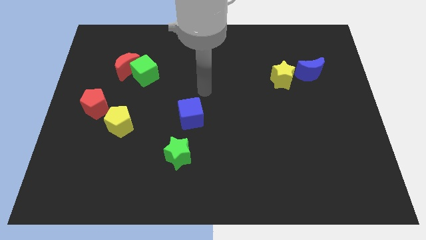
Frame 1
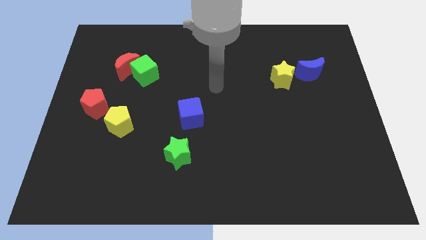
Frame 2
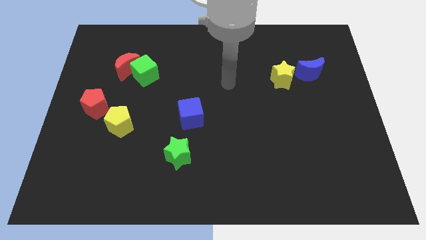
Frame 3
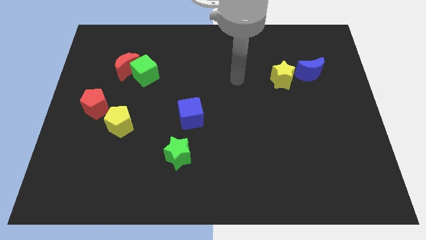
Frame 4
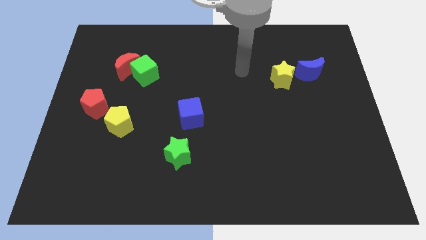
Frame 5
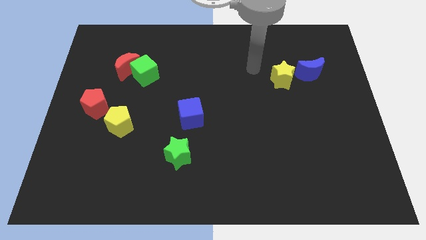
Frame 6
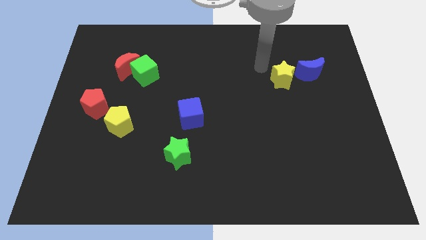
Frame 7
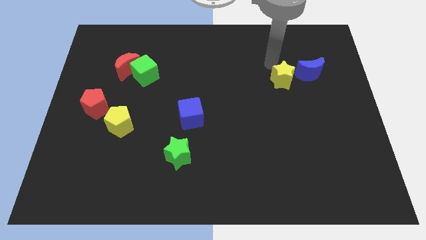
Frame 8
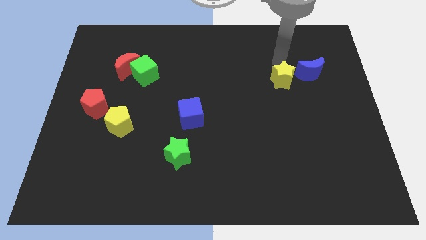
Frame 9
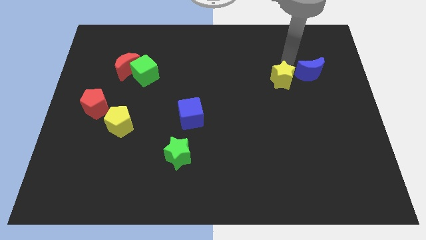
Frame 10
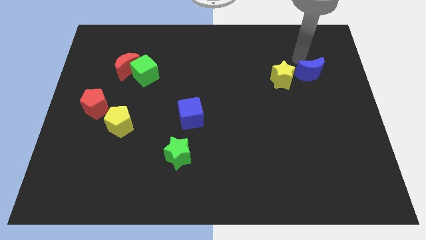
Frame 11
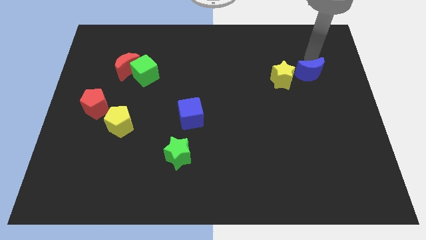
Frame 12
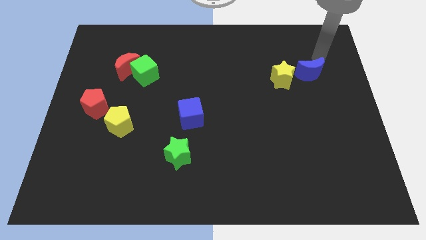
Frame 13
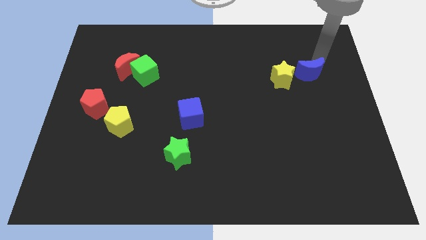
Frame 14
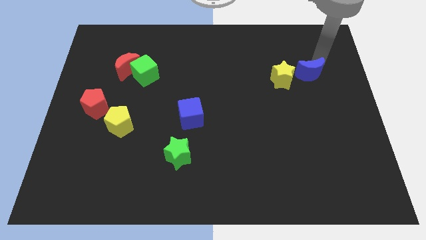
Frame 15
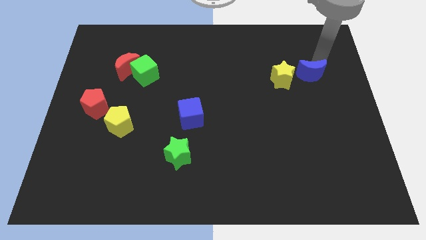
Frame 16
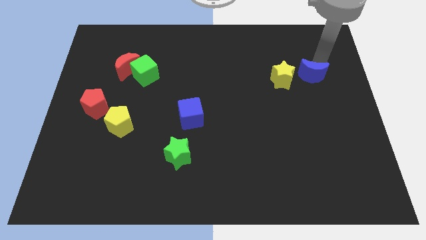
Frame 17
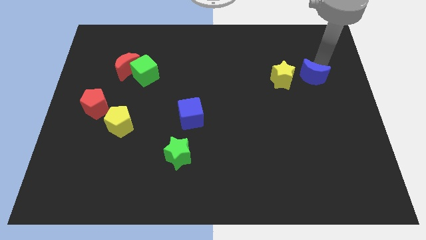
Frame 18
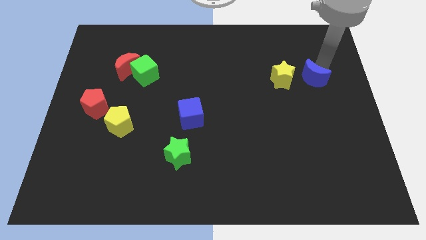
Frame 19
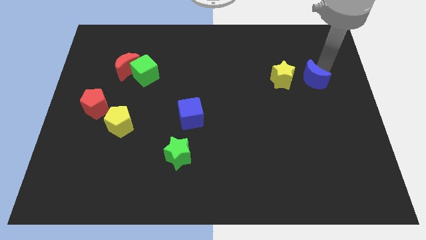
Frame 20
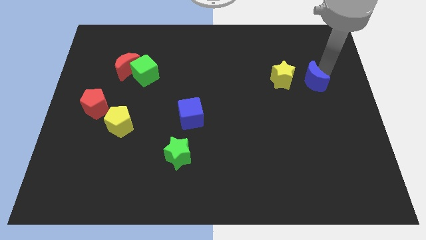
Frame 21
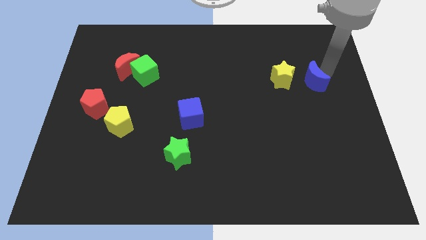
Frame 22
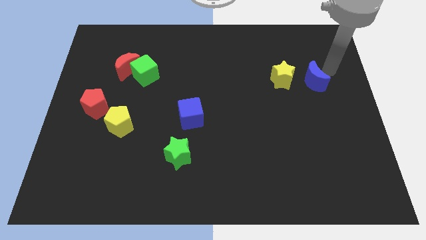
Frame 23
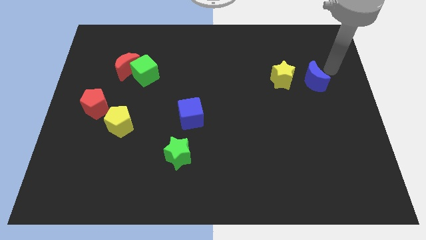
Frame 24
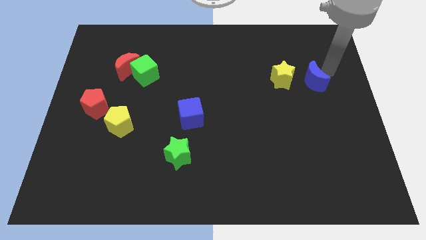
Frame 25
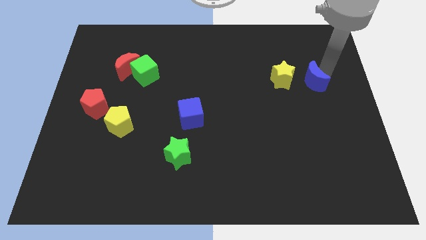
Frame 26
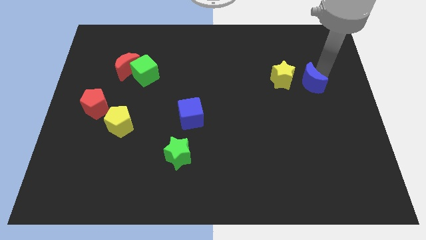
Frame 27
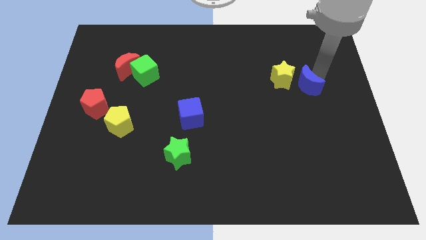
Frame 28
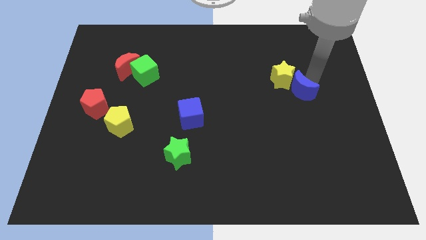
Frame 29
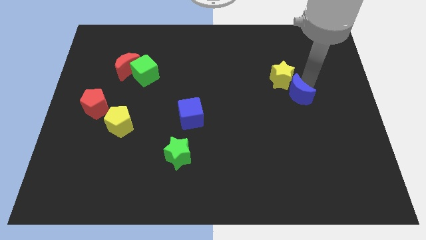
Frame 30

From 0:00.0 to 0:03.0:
move the blue moon downwards and left a little

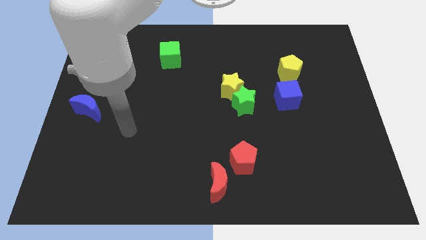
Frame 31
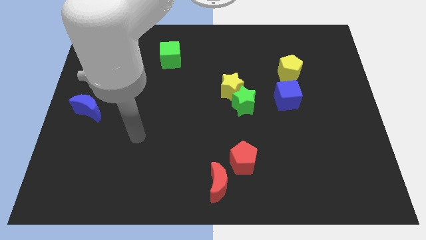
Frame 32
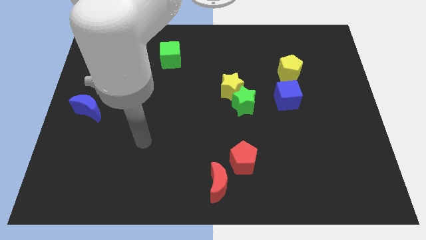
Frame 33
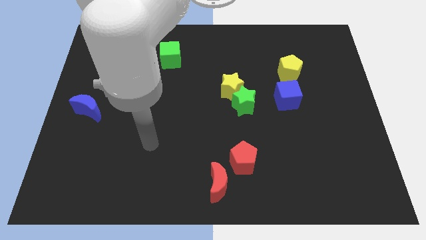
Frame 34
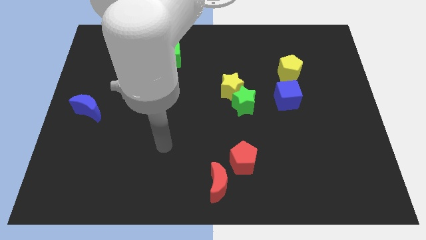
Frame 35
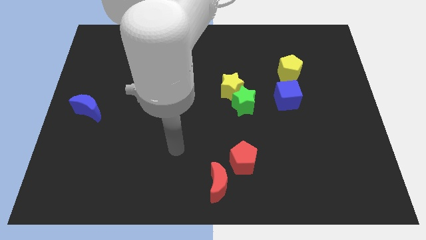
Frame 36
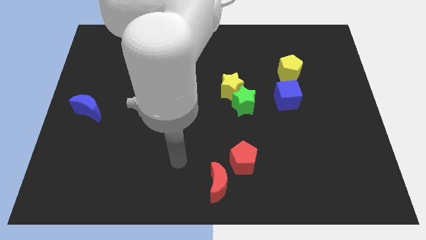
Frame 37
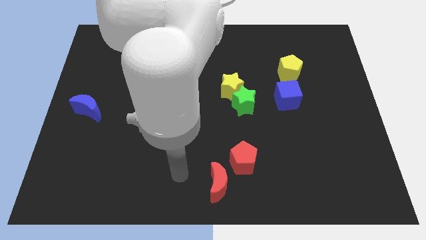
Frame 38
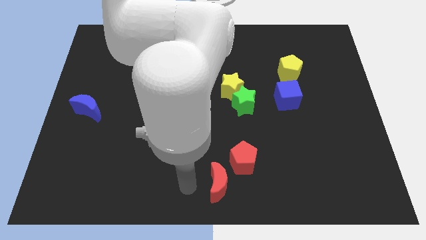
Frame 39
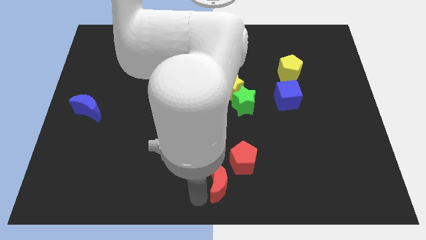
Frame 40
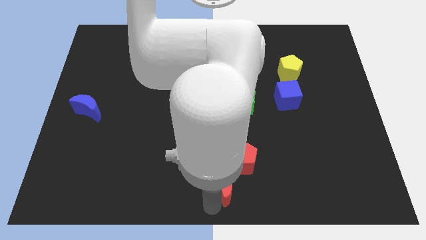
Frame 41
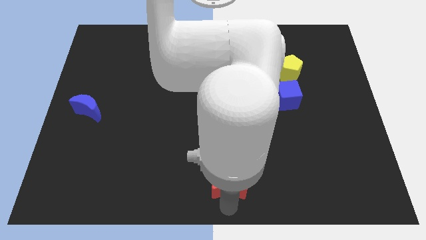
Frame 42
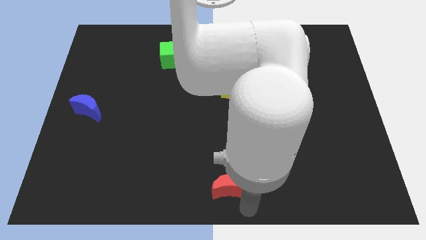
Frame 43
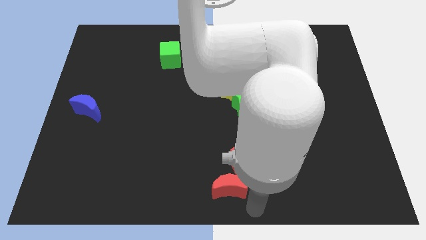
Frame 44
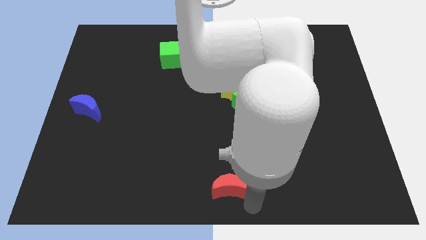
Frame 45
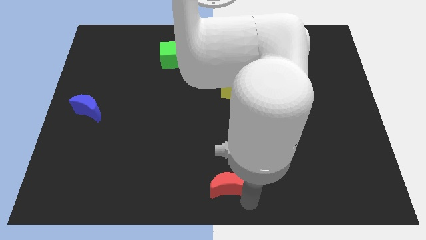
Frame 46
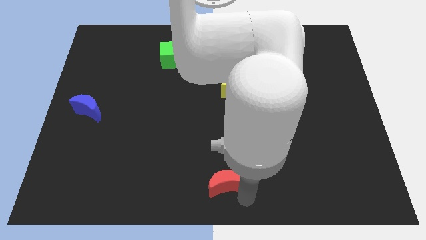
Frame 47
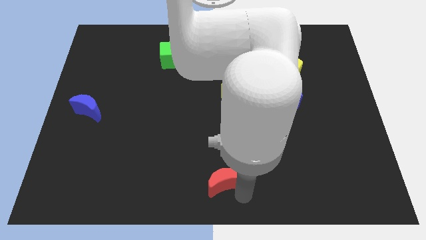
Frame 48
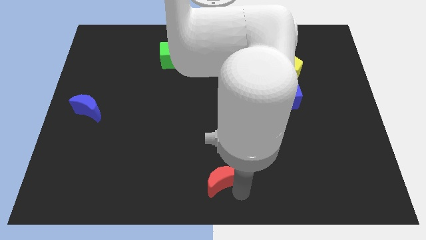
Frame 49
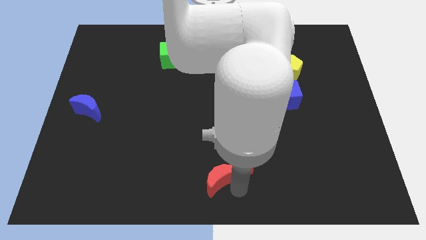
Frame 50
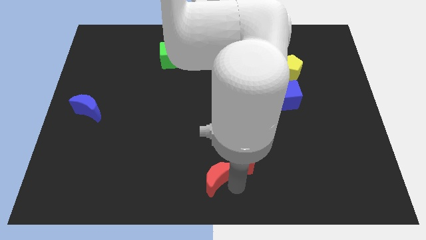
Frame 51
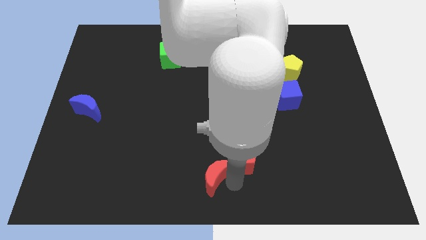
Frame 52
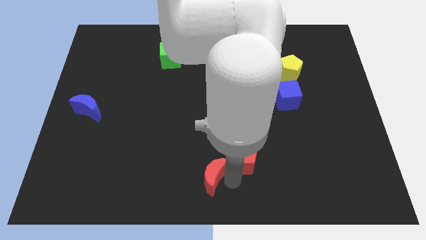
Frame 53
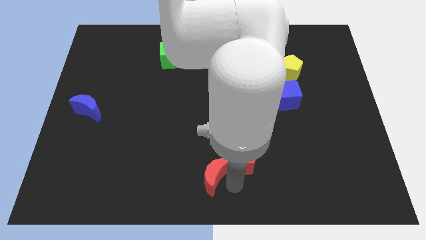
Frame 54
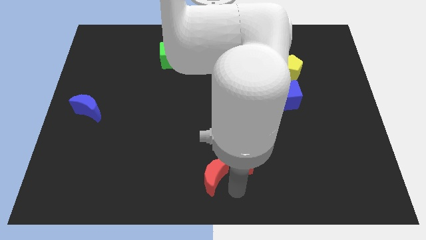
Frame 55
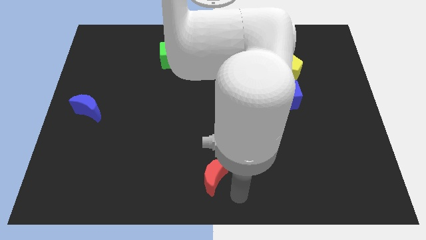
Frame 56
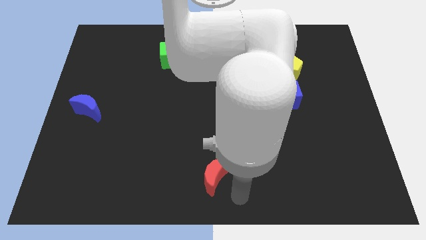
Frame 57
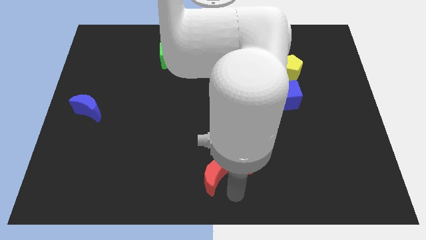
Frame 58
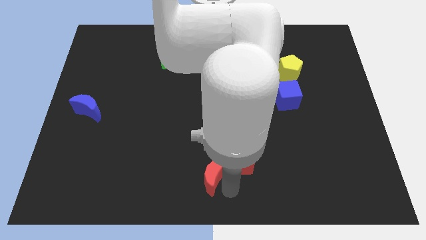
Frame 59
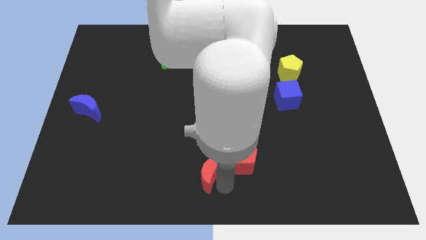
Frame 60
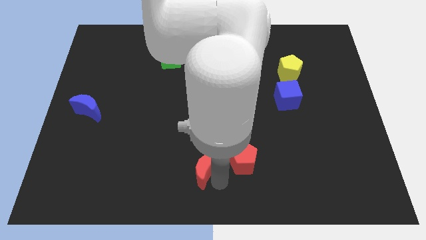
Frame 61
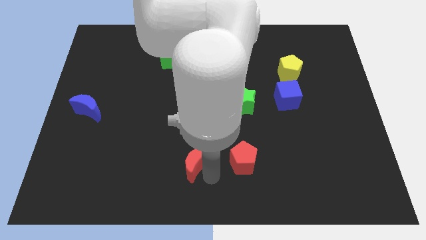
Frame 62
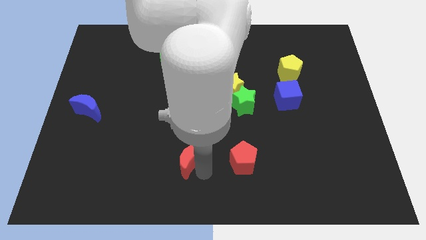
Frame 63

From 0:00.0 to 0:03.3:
slide the red moon upwards and then left a little

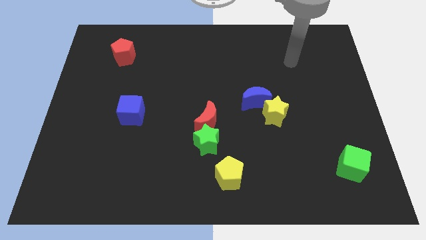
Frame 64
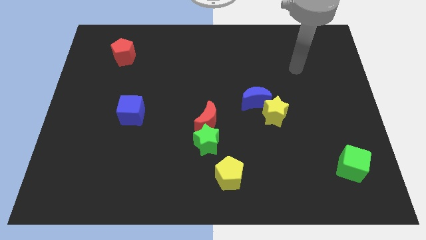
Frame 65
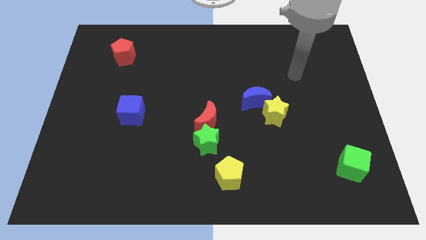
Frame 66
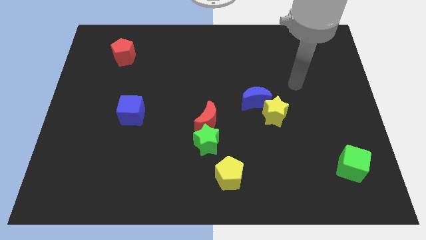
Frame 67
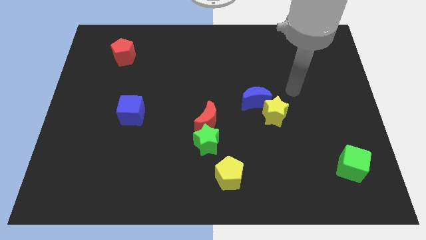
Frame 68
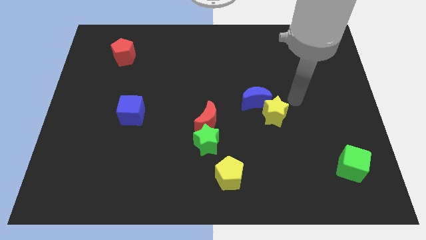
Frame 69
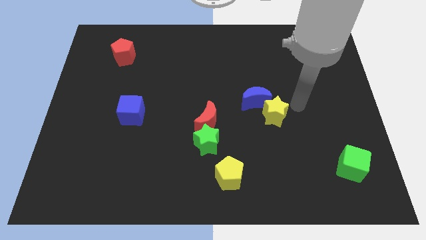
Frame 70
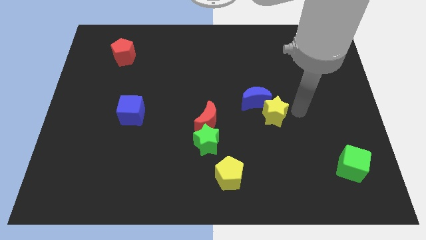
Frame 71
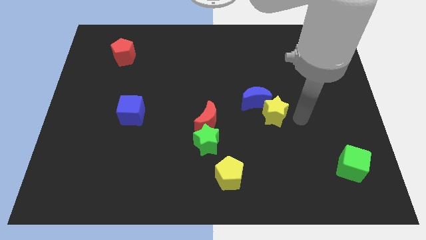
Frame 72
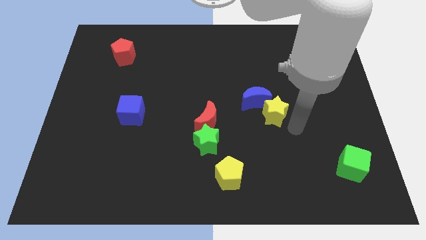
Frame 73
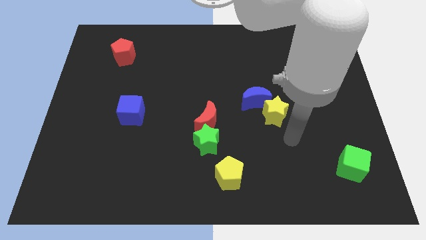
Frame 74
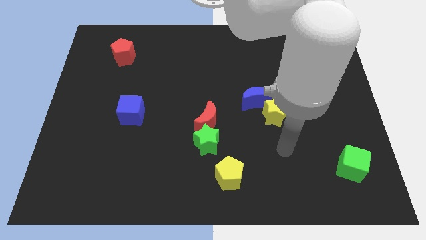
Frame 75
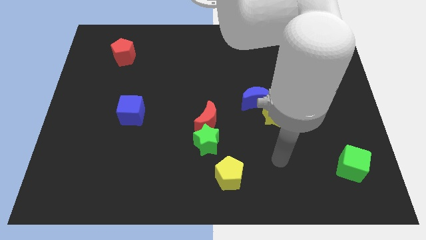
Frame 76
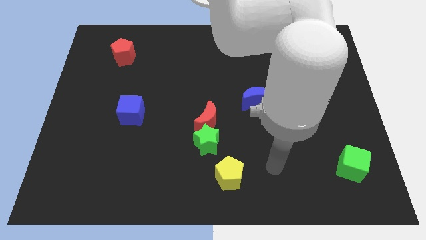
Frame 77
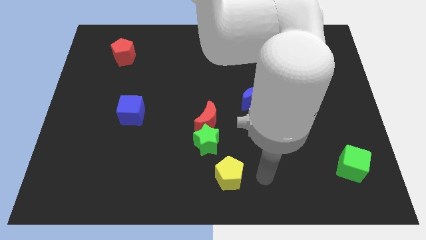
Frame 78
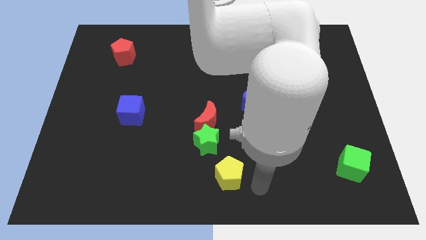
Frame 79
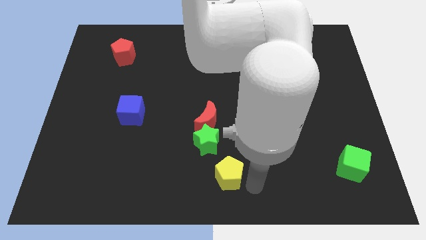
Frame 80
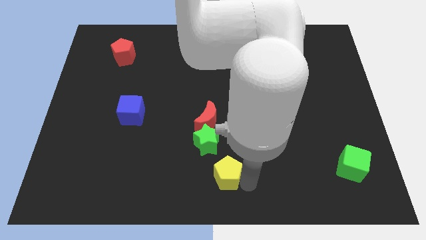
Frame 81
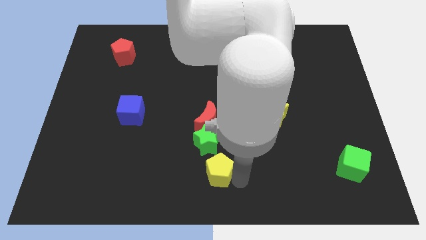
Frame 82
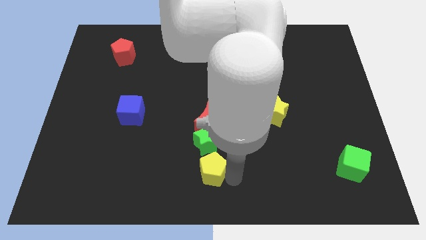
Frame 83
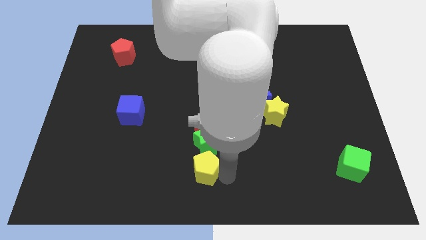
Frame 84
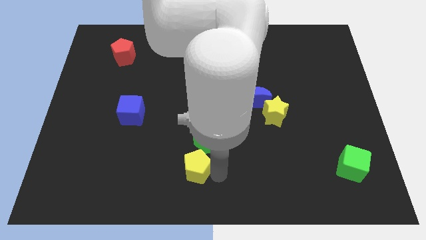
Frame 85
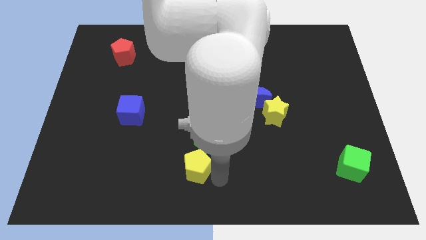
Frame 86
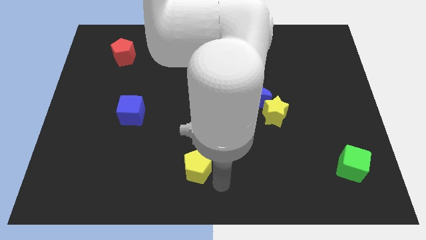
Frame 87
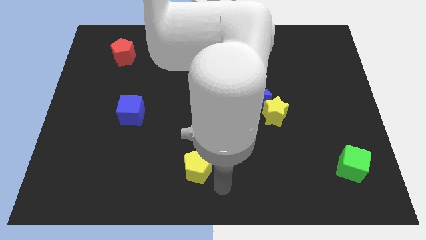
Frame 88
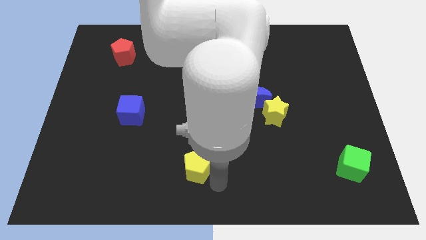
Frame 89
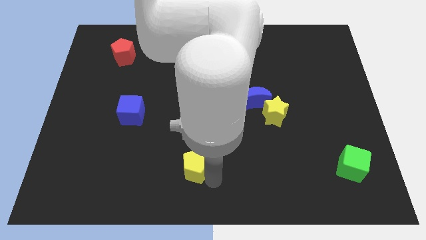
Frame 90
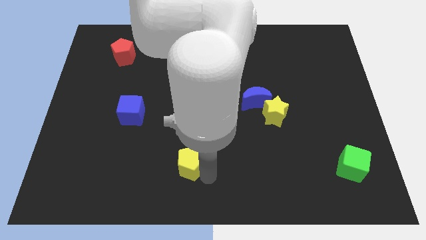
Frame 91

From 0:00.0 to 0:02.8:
push the yellow pentagon upwards and then left a little bit
